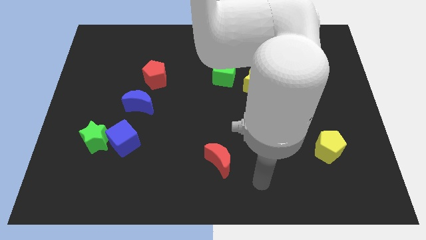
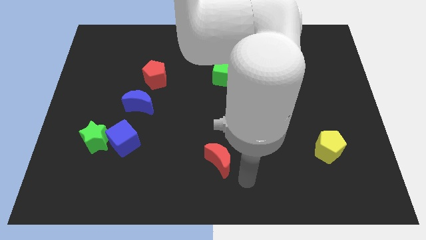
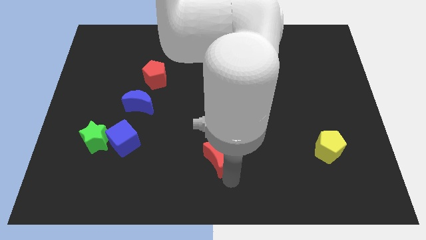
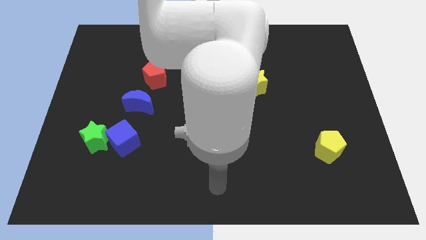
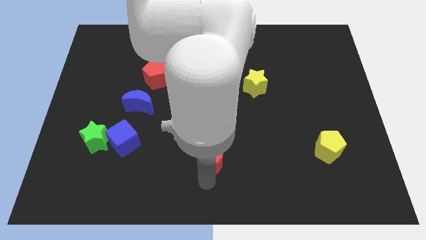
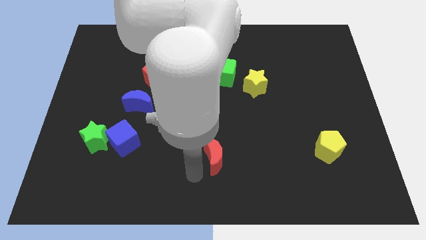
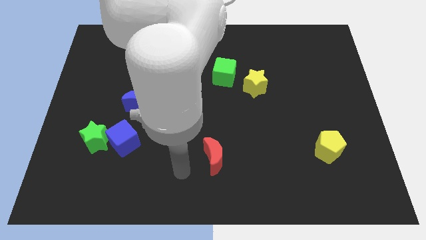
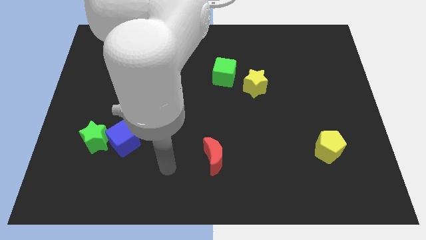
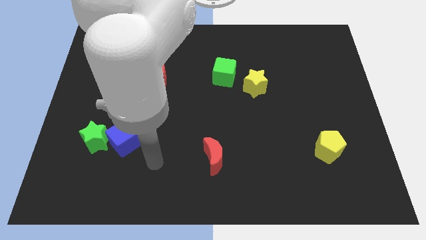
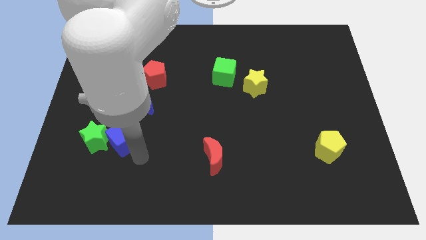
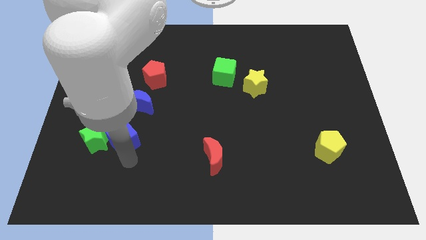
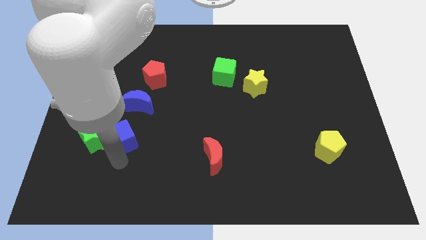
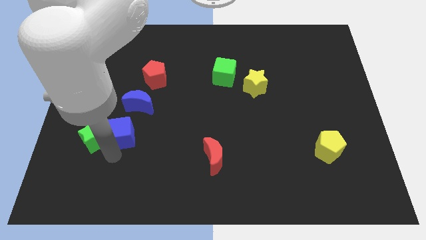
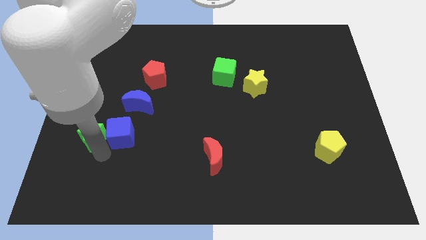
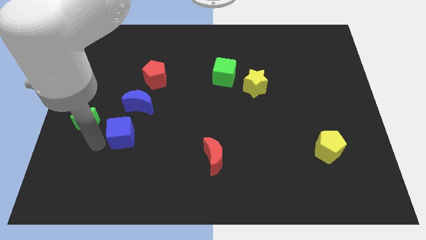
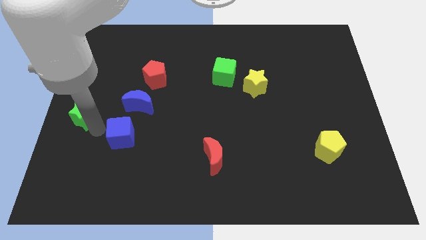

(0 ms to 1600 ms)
move the blue cube away from the green star

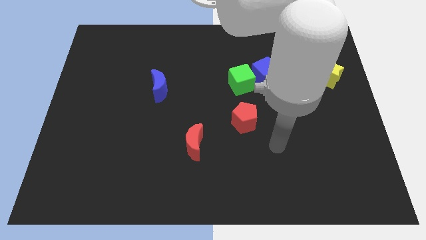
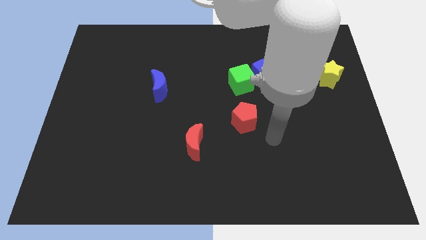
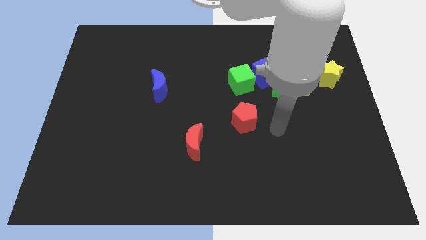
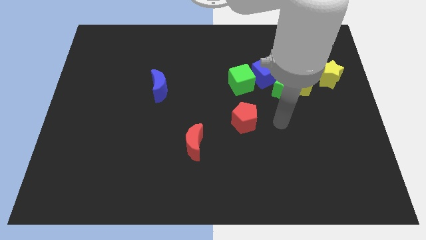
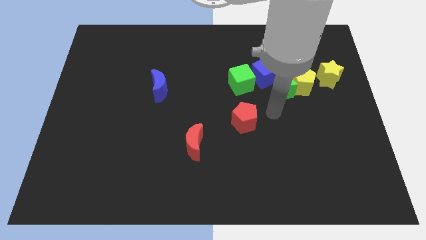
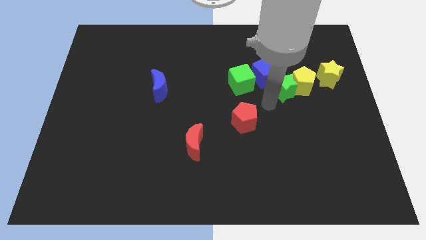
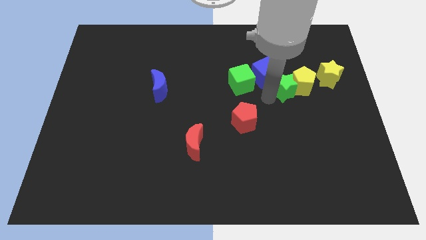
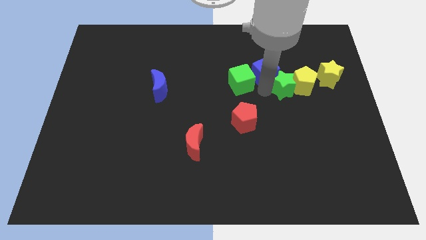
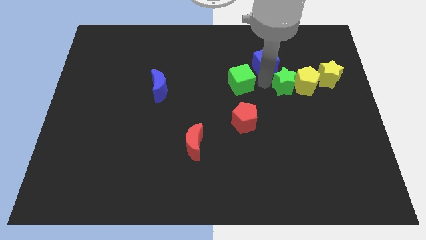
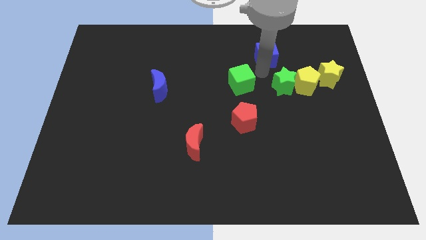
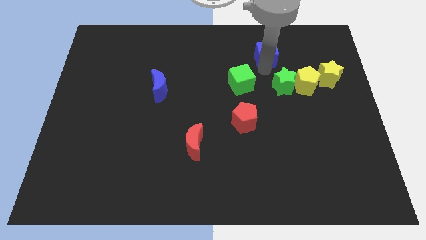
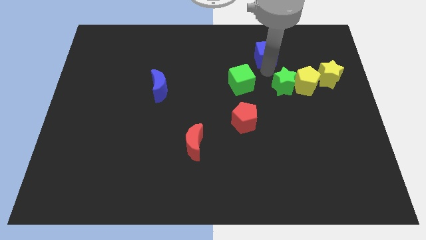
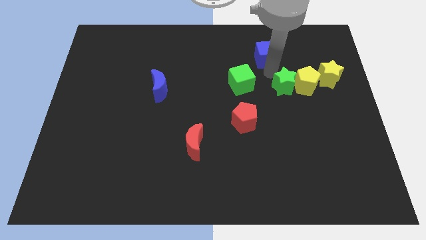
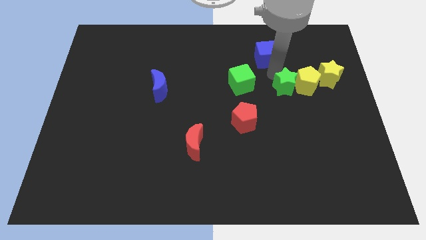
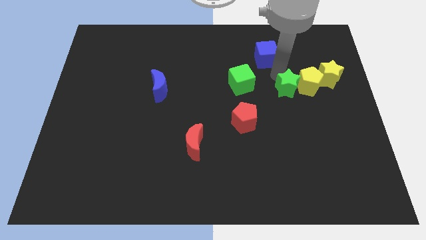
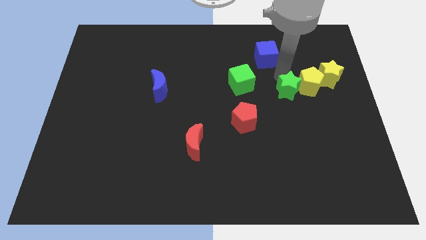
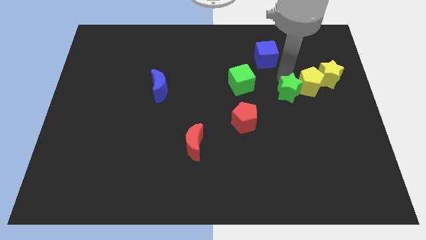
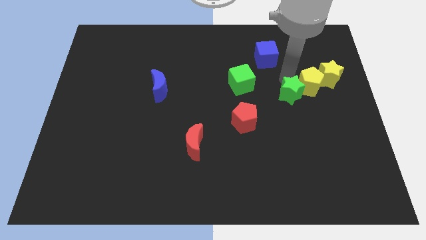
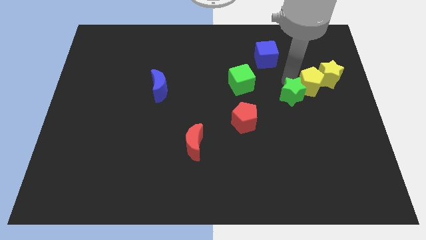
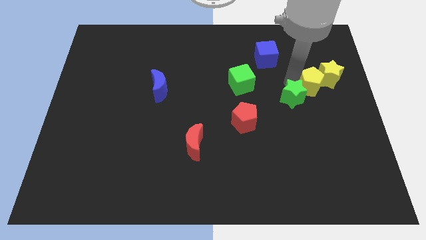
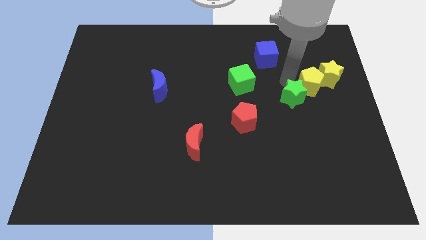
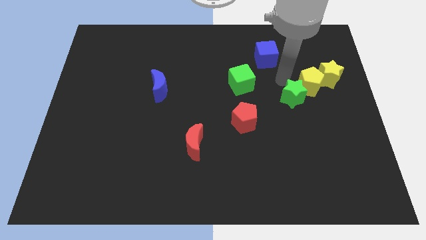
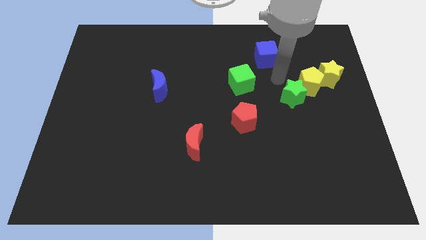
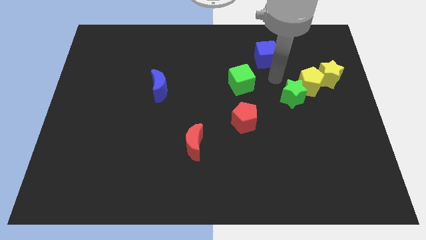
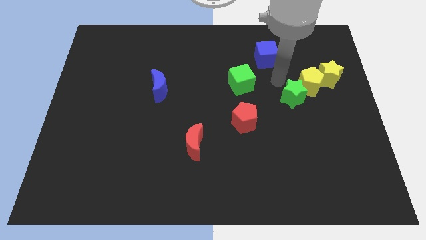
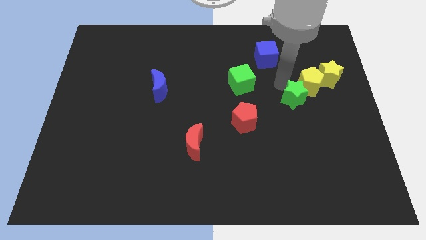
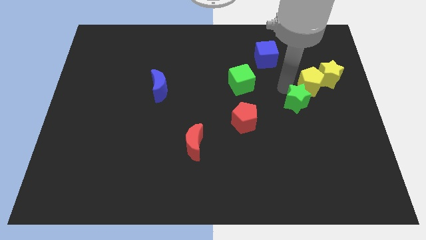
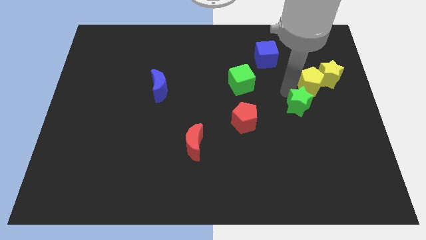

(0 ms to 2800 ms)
pull the green star apart from the group of blocks

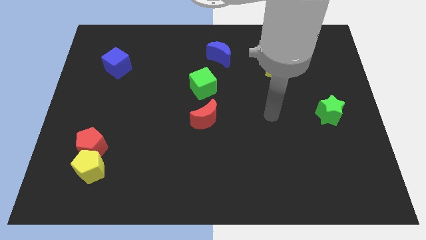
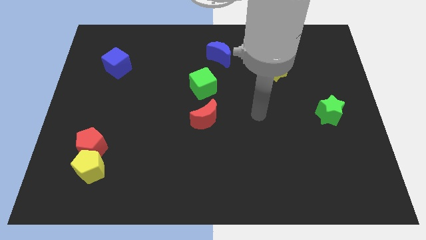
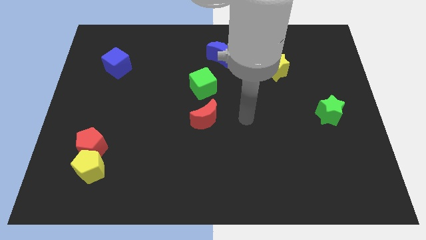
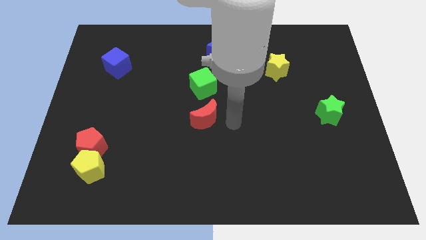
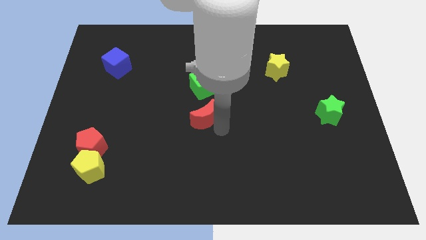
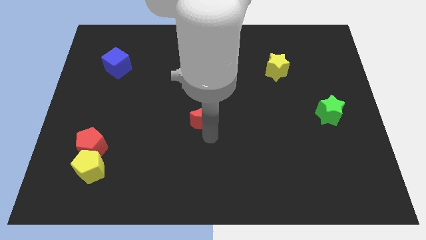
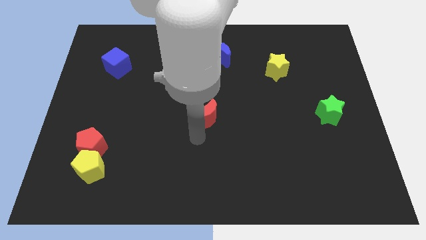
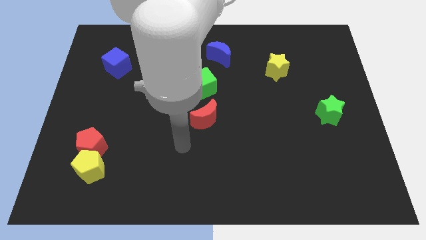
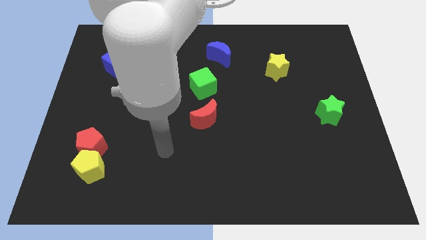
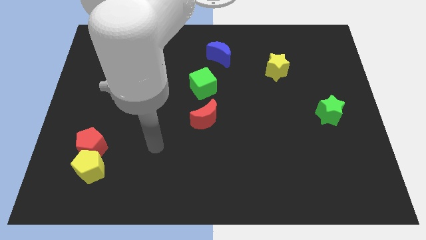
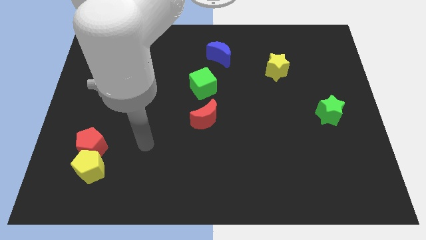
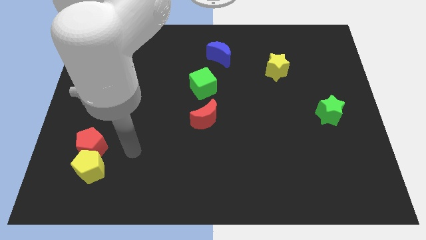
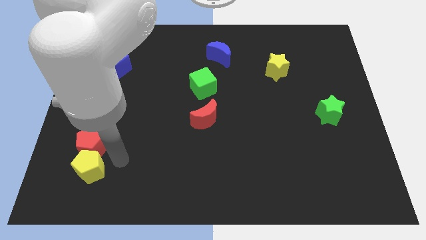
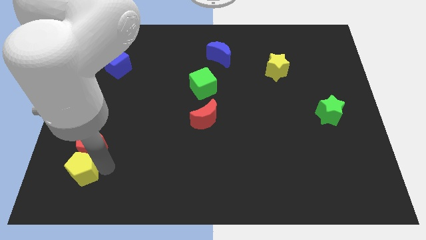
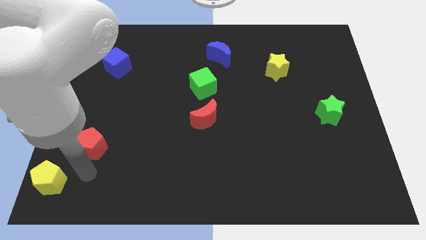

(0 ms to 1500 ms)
move the red pentagon away from the yellow pentagon

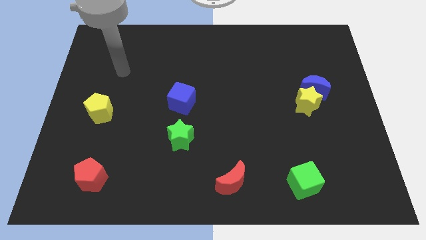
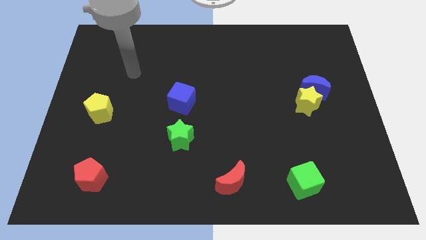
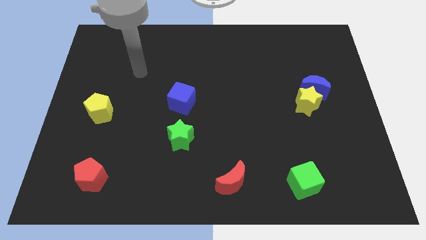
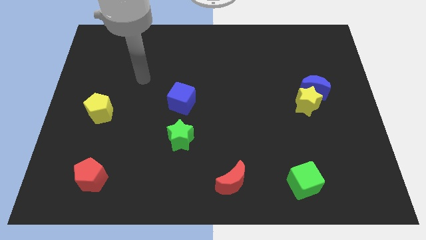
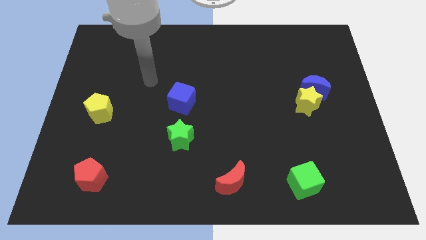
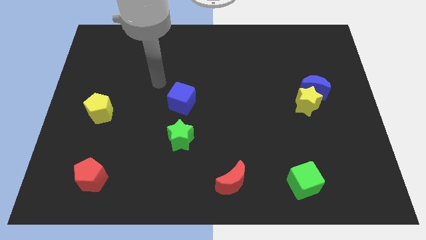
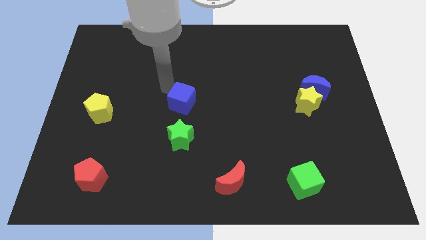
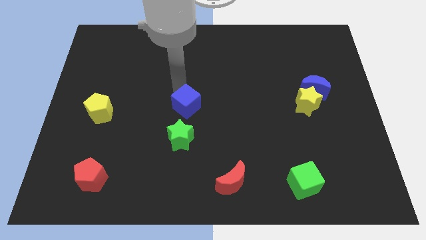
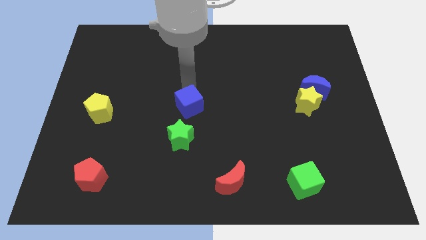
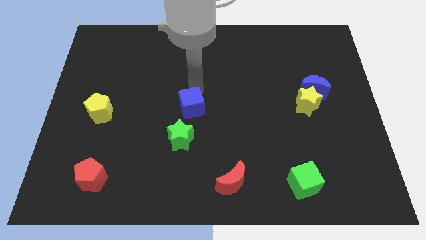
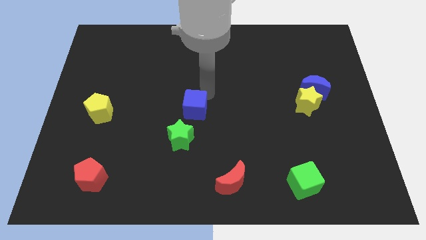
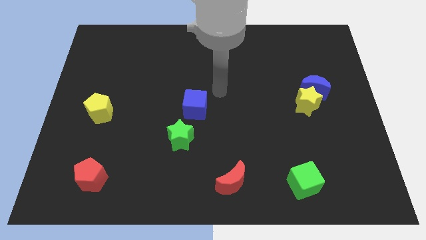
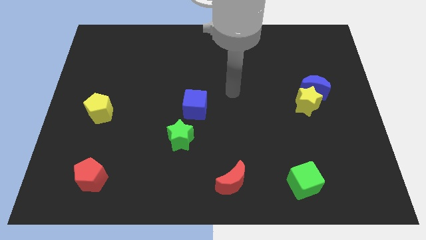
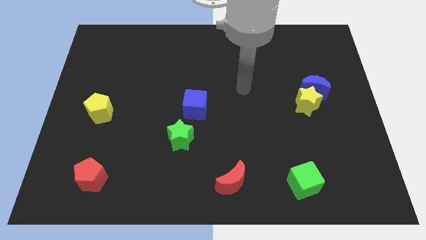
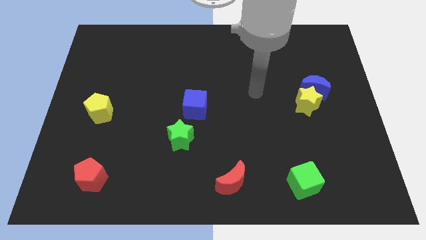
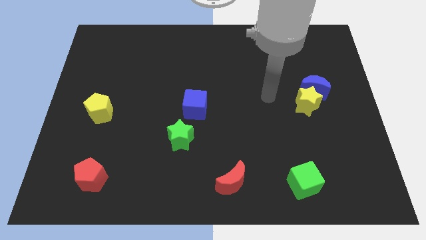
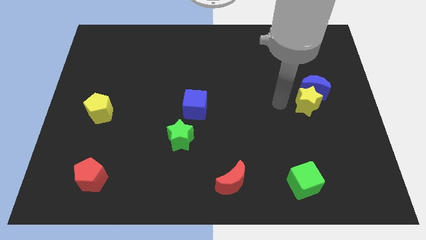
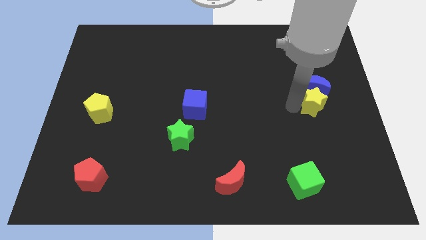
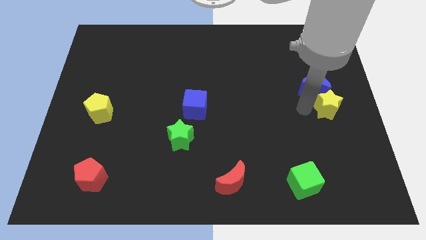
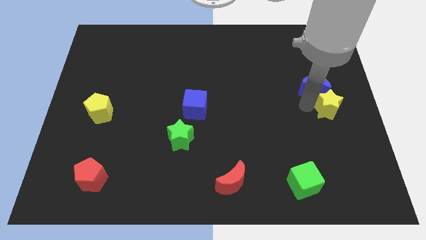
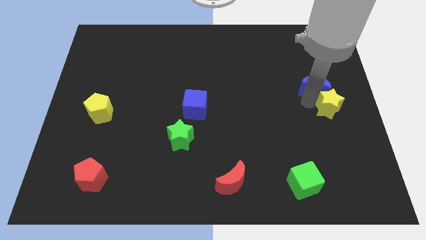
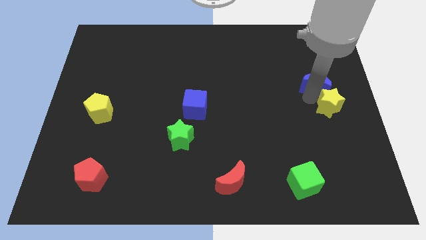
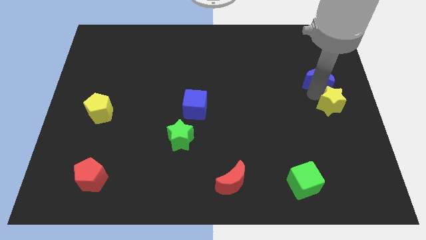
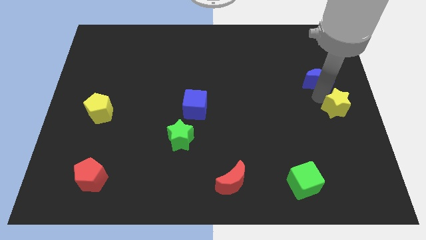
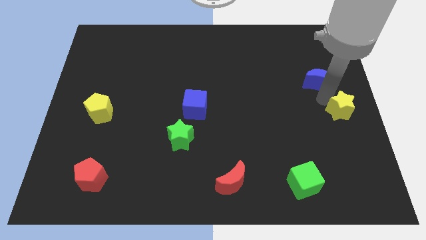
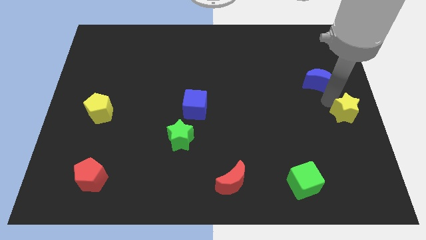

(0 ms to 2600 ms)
move the blue moon away from the yellow star

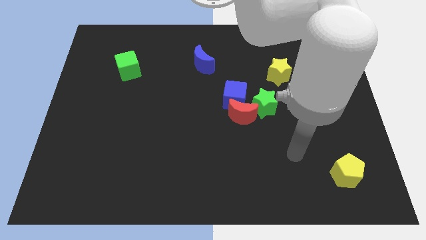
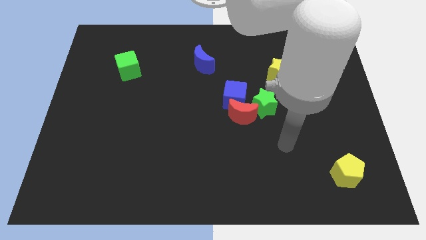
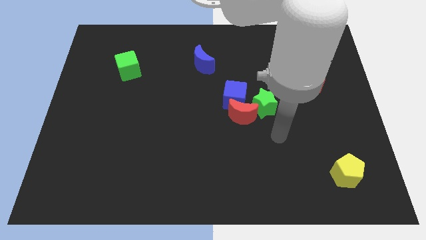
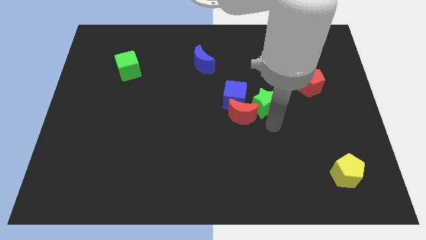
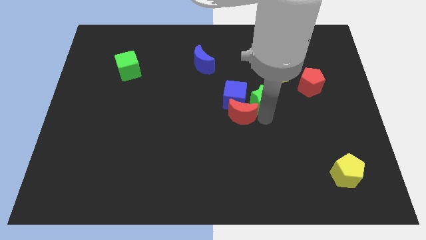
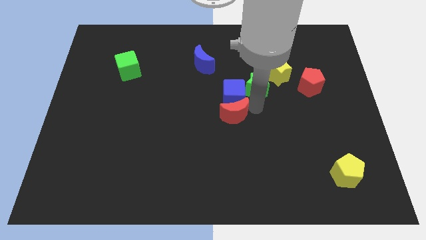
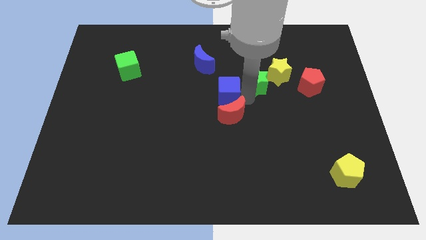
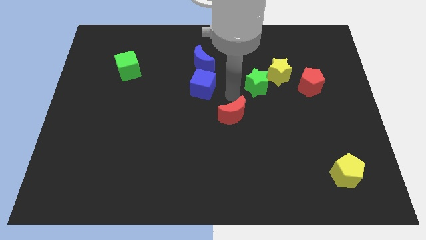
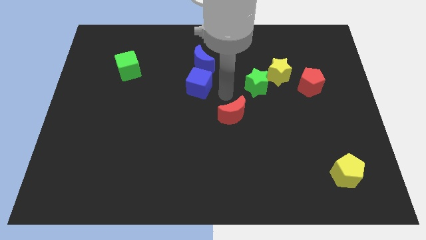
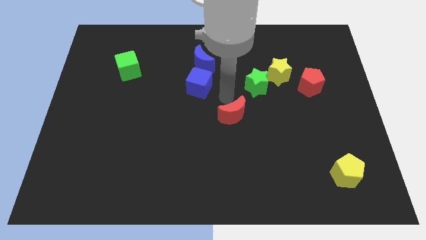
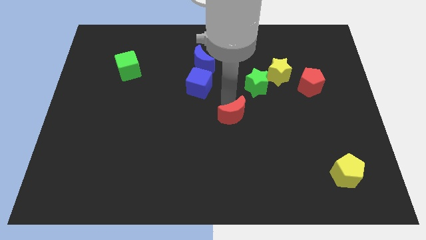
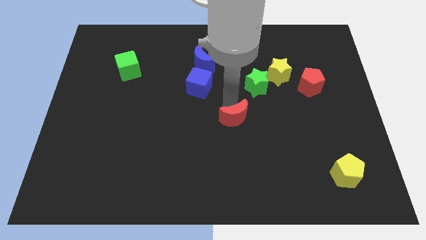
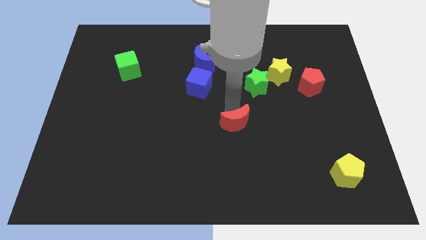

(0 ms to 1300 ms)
pull the red moon apart from the blue cube and green star
